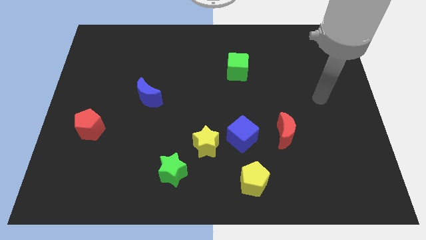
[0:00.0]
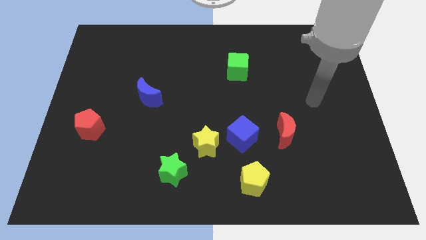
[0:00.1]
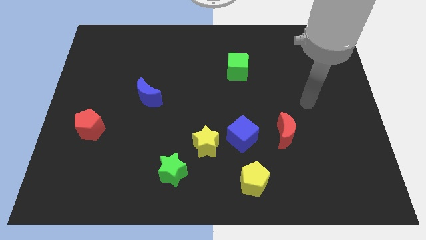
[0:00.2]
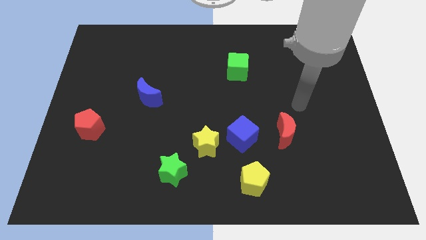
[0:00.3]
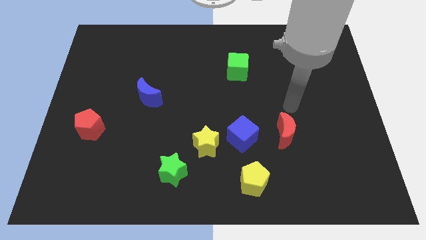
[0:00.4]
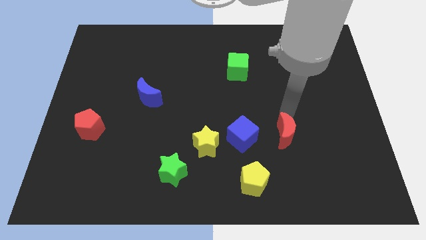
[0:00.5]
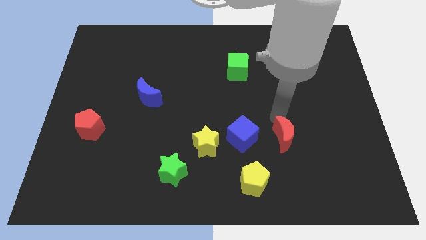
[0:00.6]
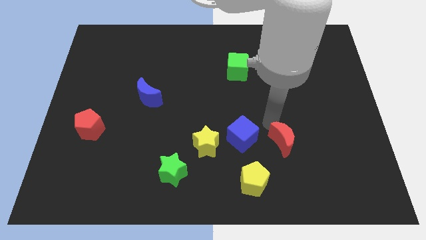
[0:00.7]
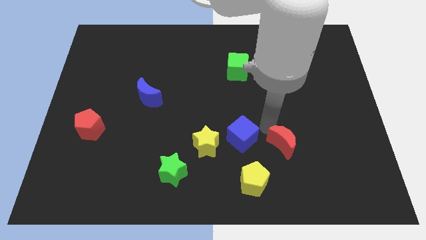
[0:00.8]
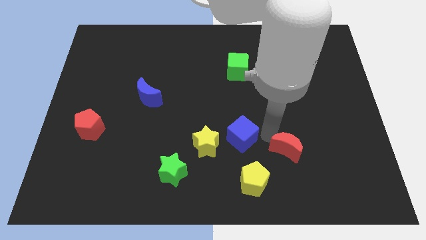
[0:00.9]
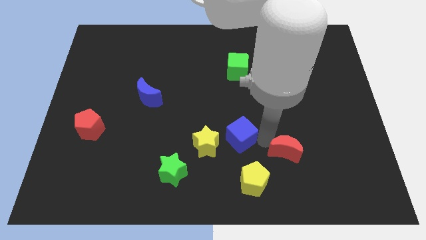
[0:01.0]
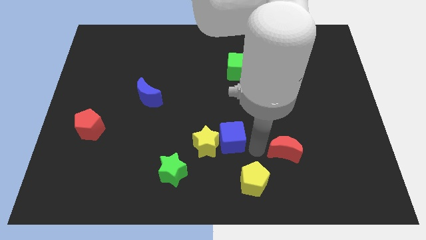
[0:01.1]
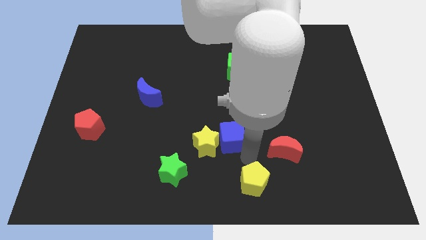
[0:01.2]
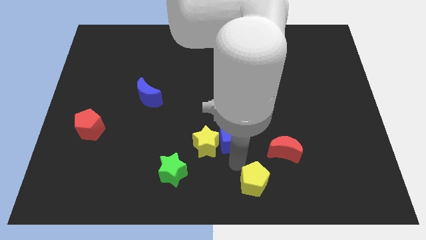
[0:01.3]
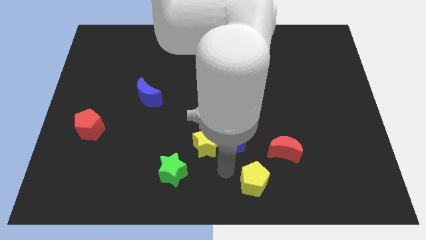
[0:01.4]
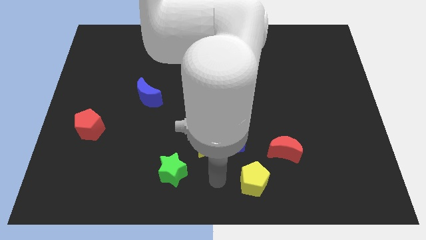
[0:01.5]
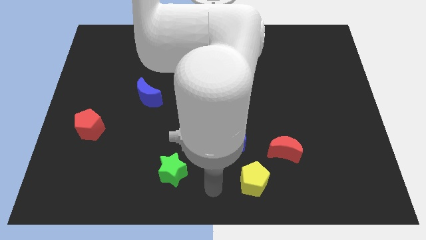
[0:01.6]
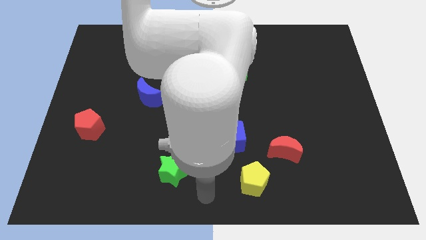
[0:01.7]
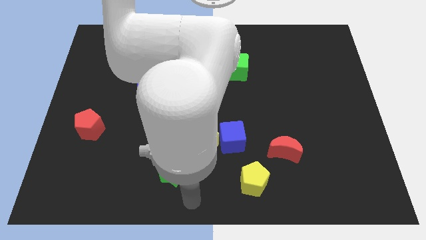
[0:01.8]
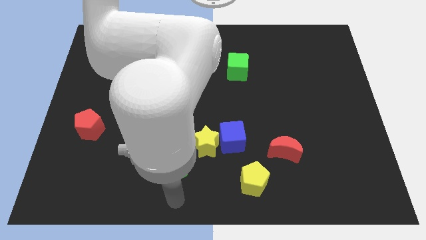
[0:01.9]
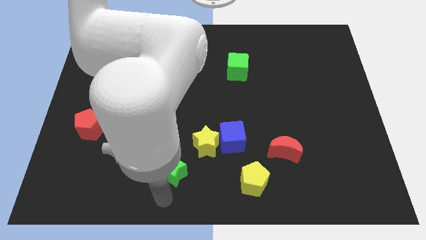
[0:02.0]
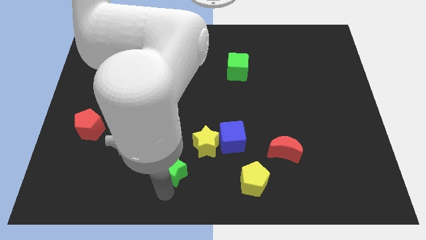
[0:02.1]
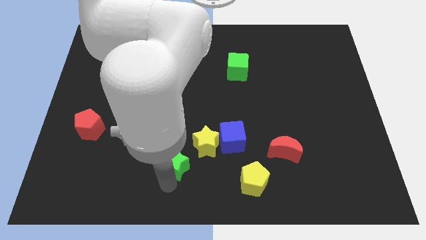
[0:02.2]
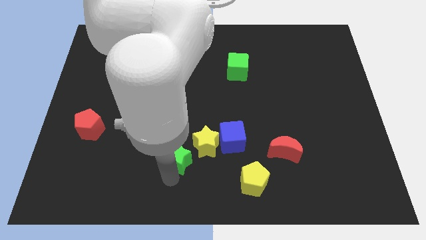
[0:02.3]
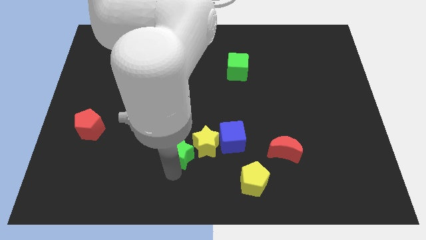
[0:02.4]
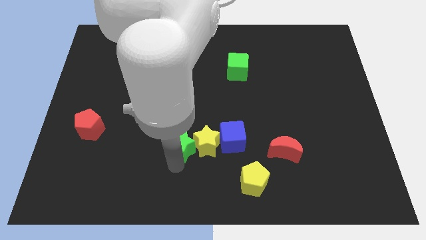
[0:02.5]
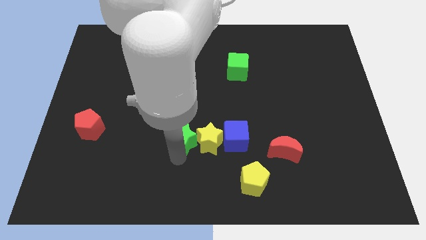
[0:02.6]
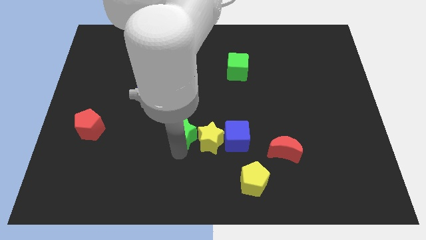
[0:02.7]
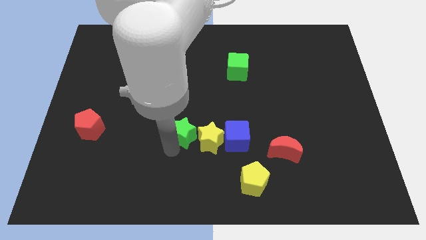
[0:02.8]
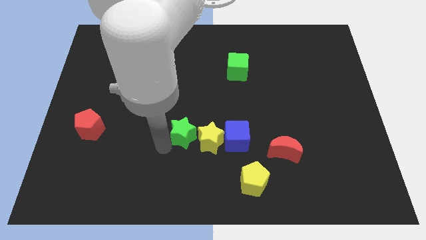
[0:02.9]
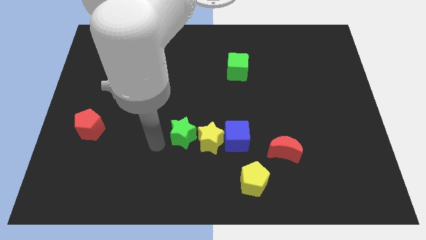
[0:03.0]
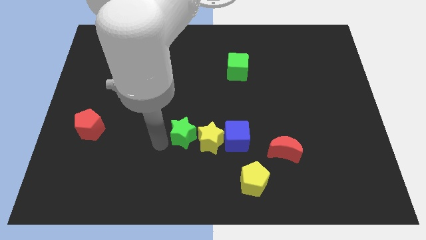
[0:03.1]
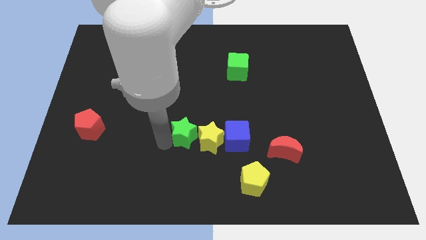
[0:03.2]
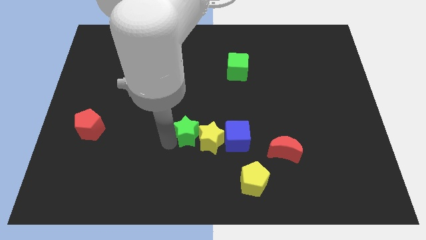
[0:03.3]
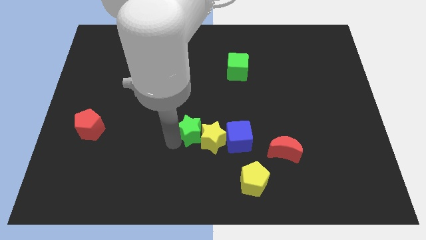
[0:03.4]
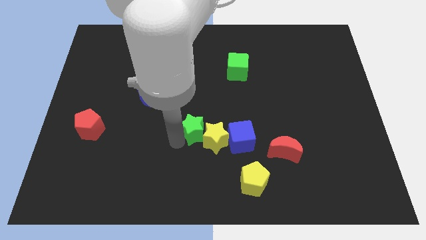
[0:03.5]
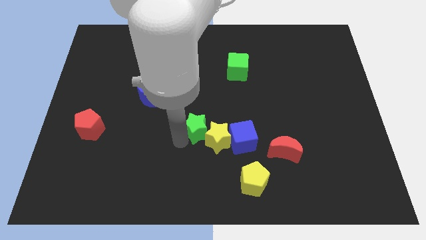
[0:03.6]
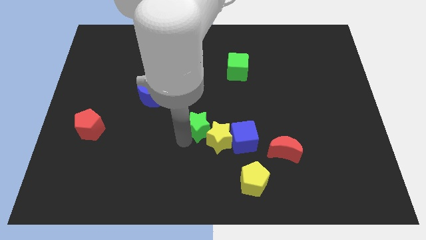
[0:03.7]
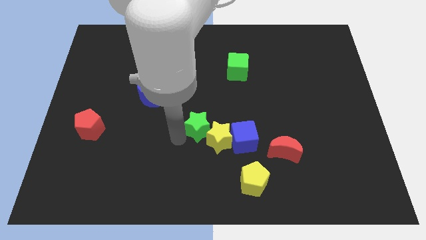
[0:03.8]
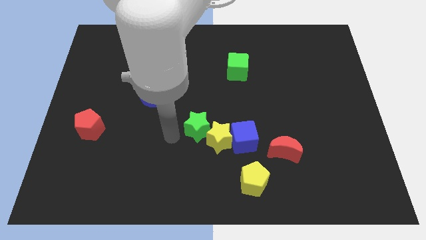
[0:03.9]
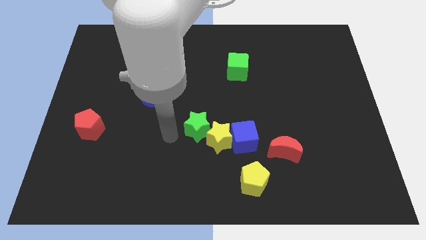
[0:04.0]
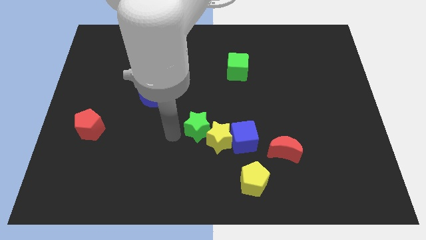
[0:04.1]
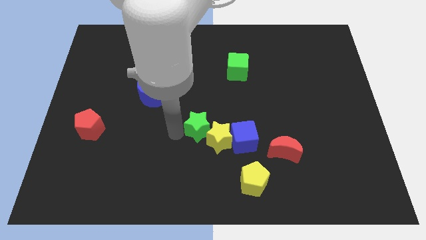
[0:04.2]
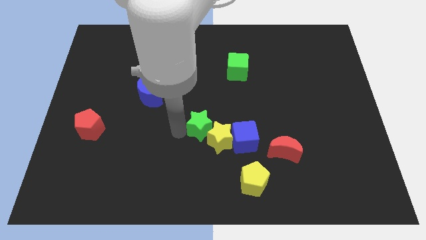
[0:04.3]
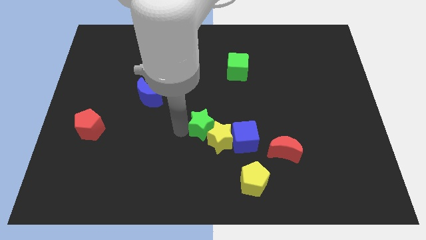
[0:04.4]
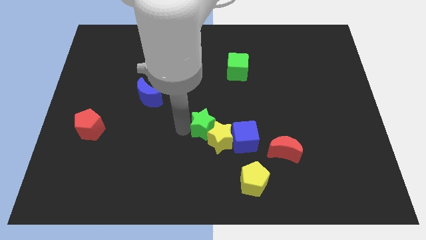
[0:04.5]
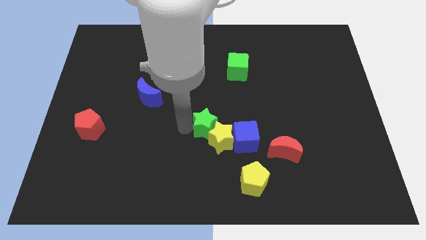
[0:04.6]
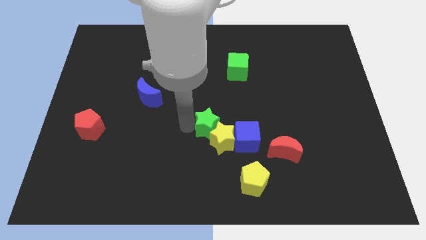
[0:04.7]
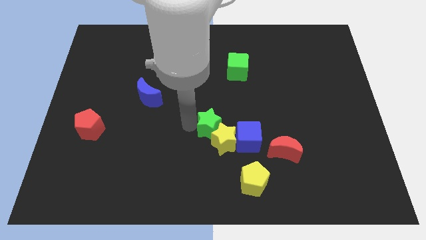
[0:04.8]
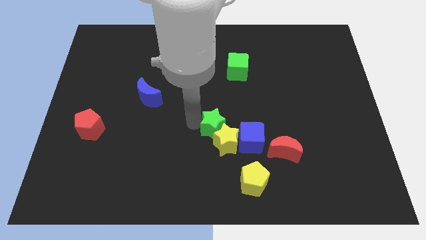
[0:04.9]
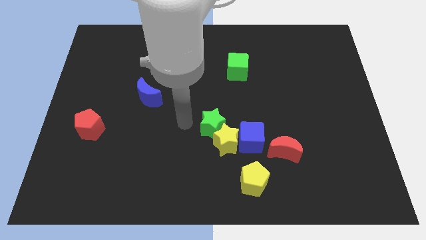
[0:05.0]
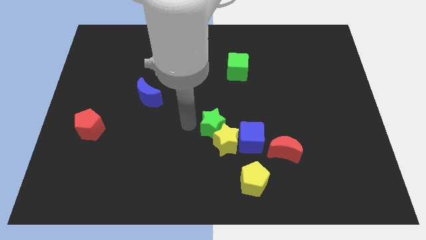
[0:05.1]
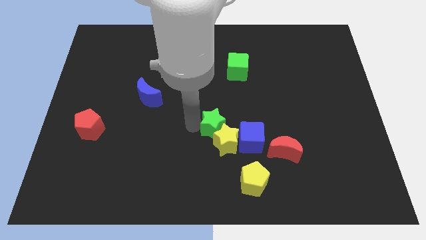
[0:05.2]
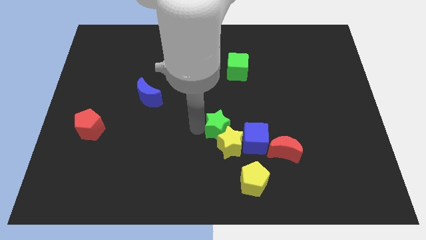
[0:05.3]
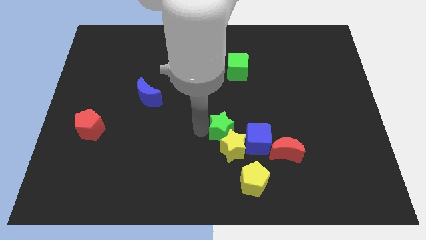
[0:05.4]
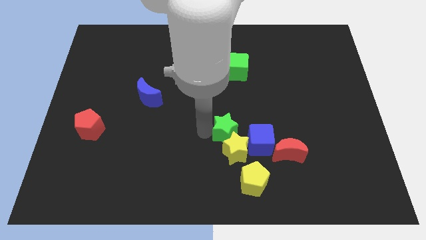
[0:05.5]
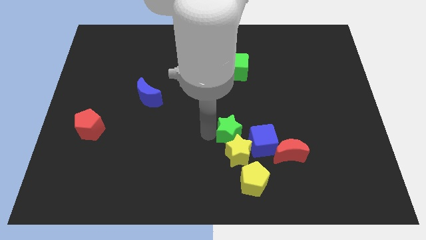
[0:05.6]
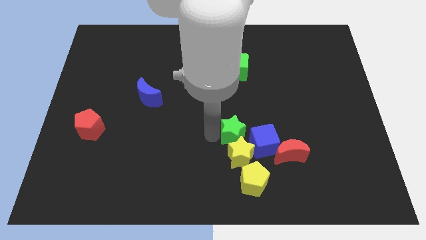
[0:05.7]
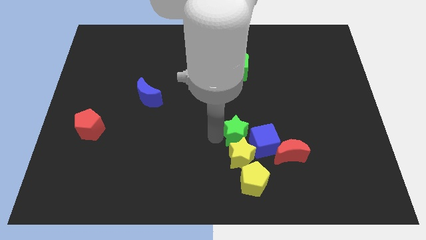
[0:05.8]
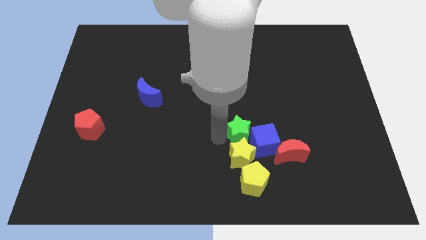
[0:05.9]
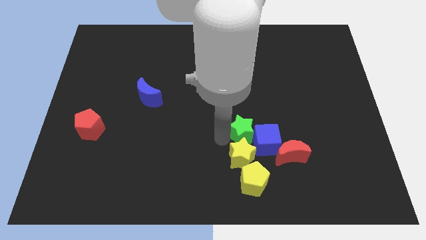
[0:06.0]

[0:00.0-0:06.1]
slide the green star to the top left side of the red moon

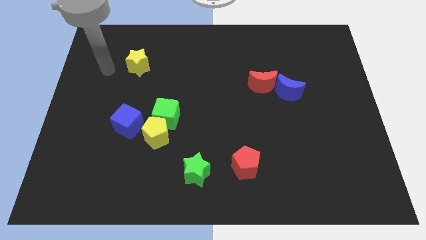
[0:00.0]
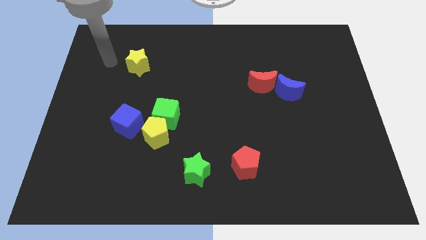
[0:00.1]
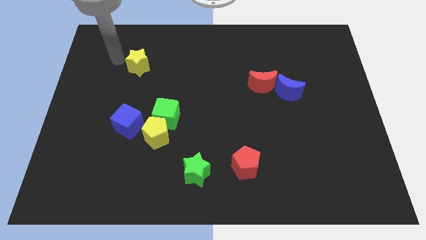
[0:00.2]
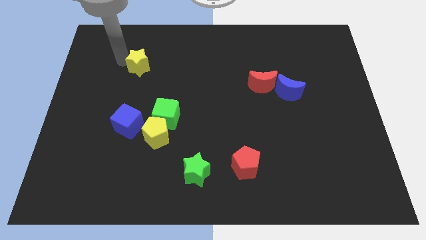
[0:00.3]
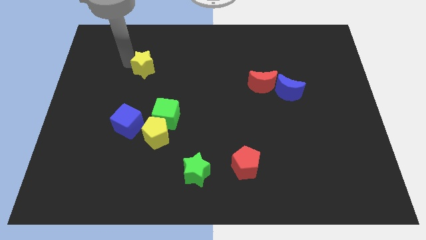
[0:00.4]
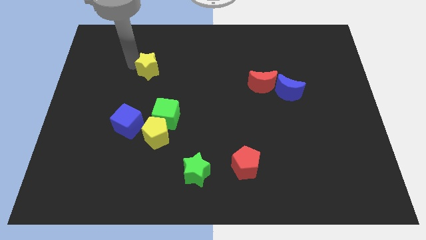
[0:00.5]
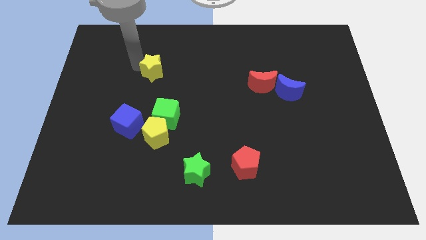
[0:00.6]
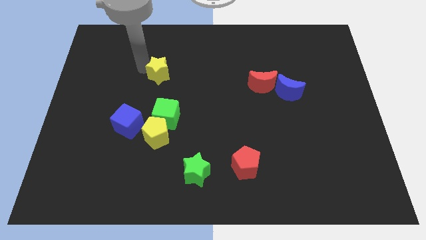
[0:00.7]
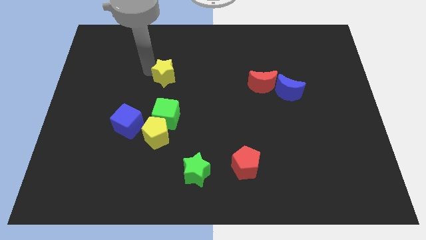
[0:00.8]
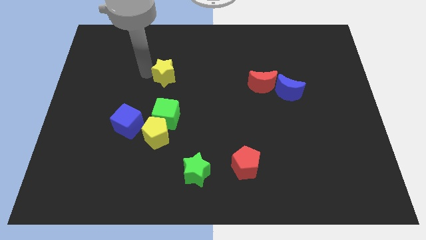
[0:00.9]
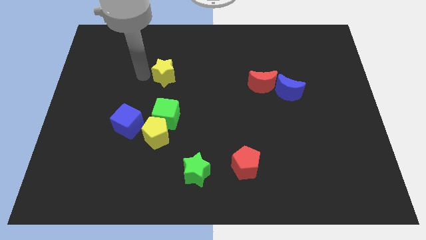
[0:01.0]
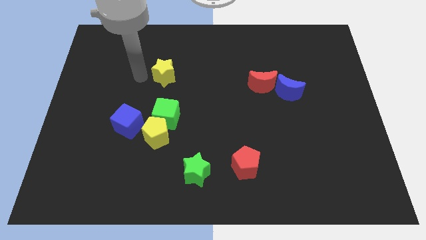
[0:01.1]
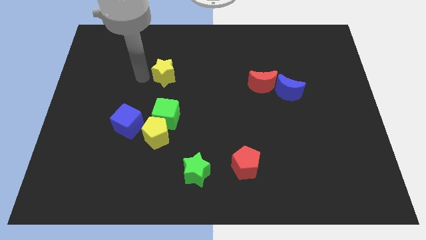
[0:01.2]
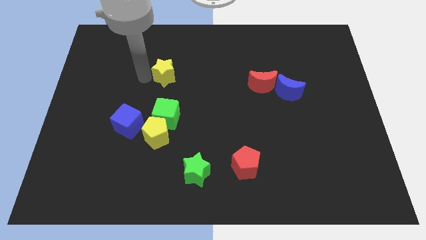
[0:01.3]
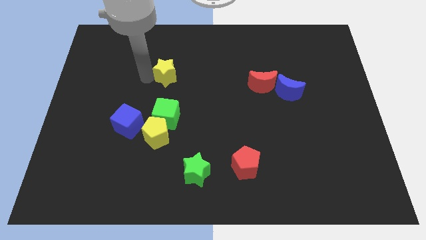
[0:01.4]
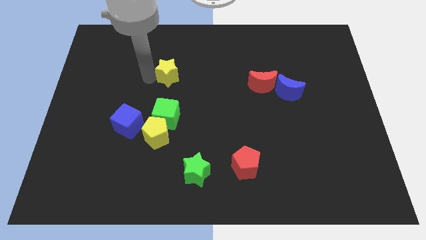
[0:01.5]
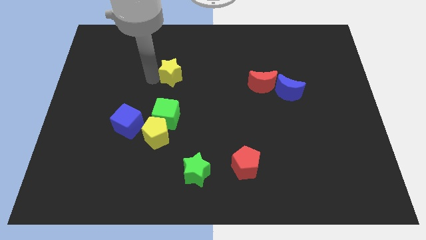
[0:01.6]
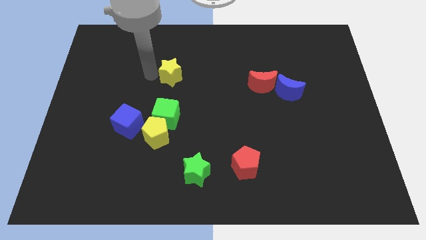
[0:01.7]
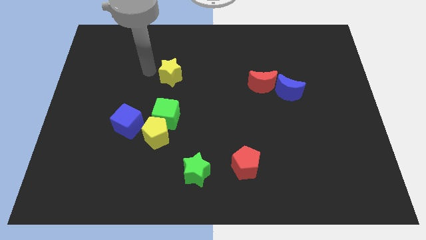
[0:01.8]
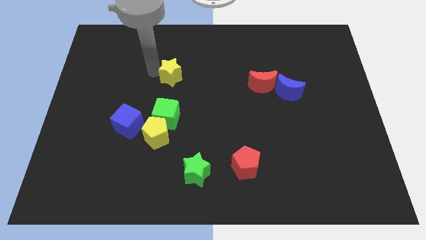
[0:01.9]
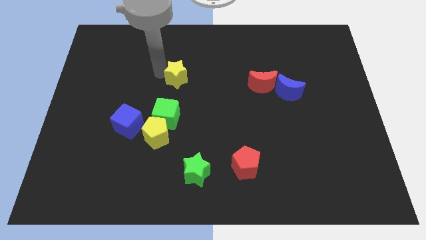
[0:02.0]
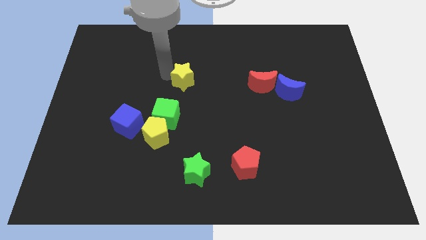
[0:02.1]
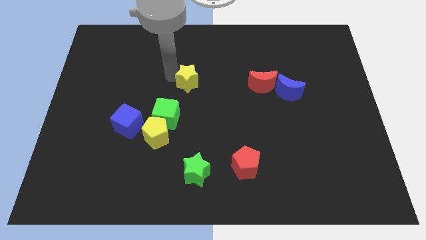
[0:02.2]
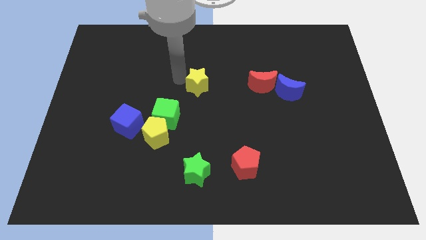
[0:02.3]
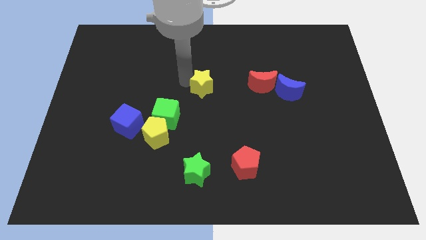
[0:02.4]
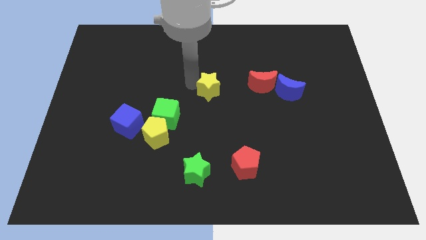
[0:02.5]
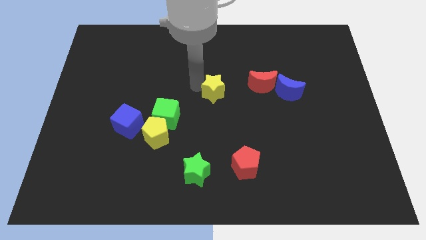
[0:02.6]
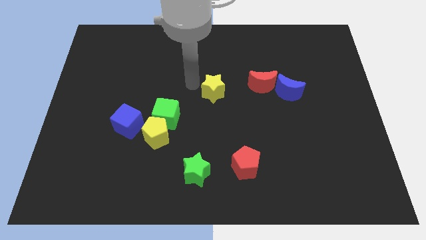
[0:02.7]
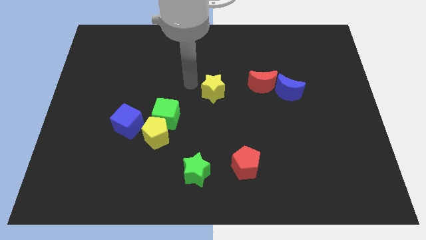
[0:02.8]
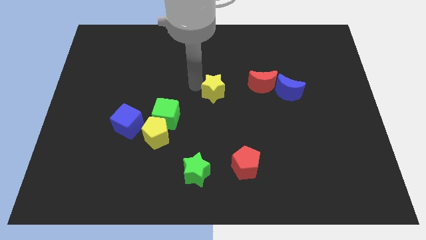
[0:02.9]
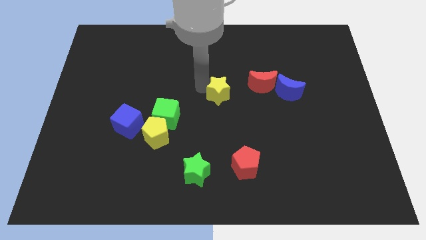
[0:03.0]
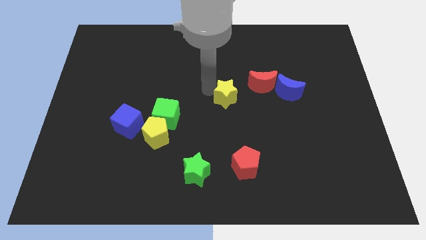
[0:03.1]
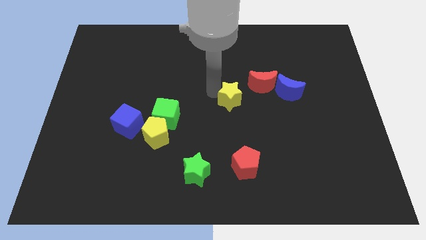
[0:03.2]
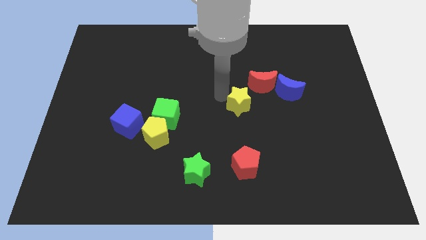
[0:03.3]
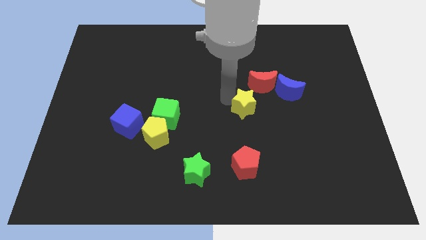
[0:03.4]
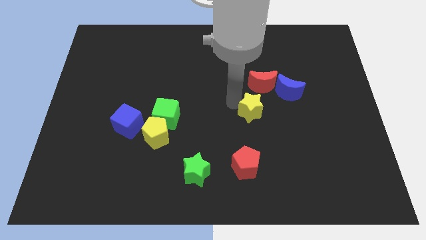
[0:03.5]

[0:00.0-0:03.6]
move the yellow star to the bottom left side of the blue moon
